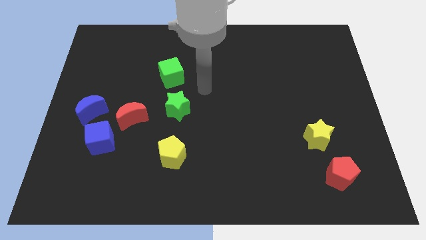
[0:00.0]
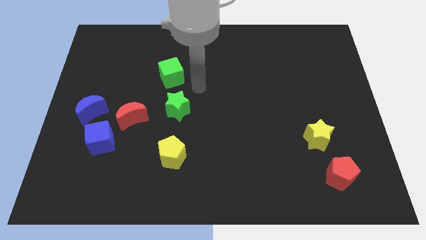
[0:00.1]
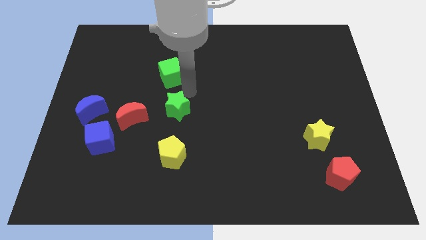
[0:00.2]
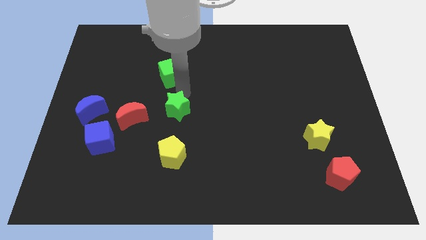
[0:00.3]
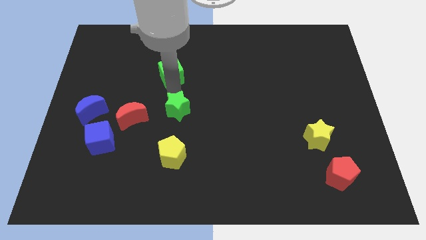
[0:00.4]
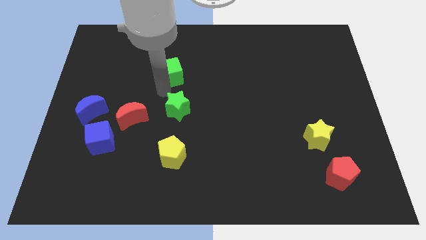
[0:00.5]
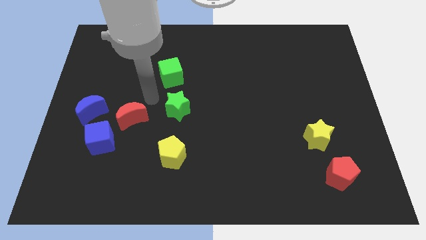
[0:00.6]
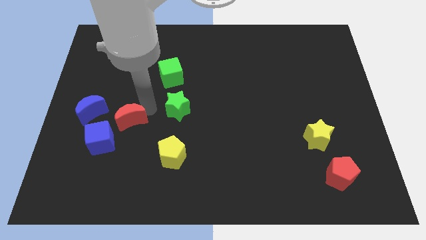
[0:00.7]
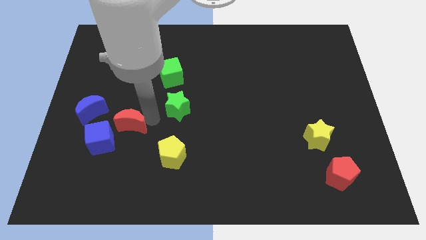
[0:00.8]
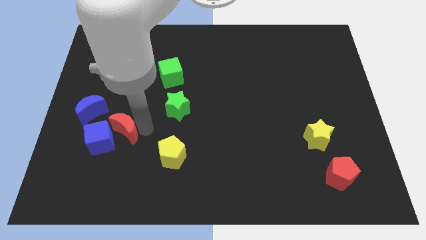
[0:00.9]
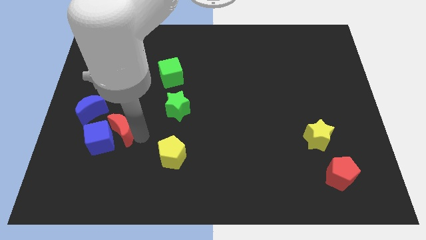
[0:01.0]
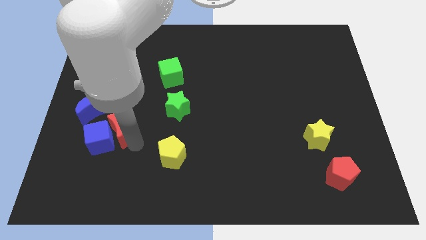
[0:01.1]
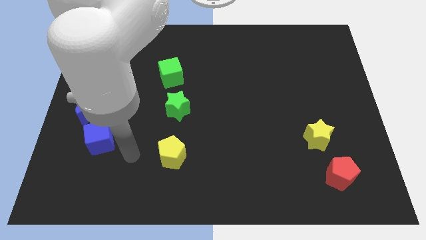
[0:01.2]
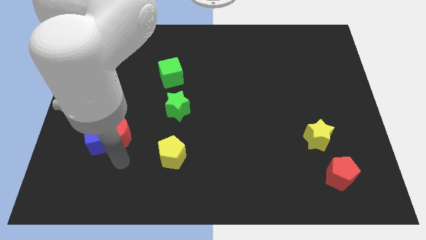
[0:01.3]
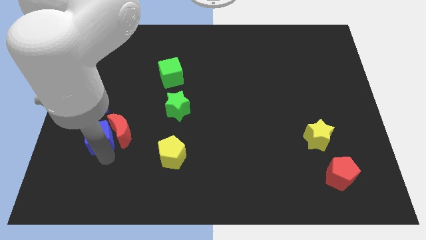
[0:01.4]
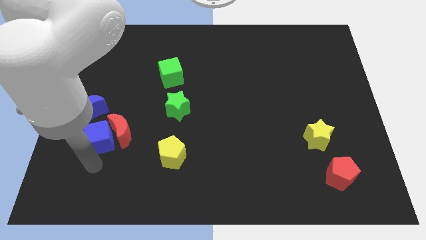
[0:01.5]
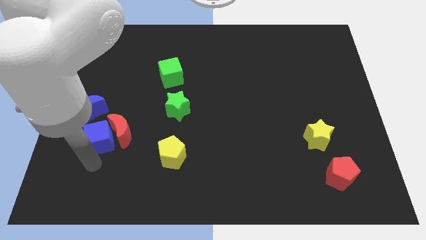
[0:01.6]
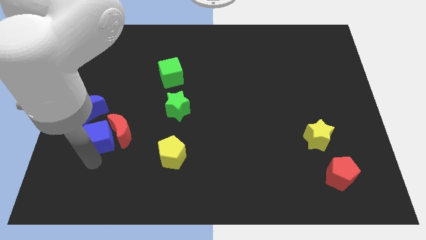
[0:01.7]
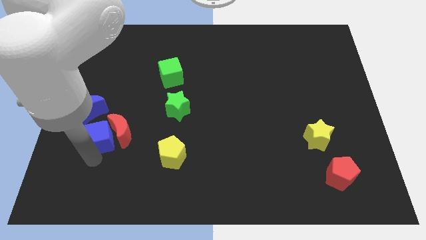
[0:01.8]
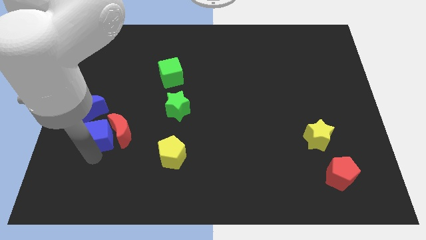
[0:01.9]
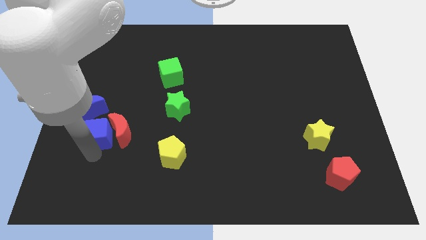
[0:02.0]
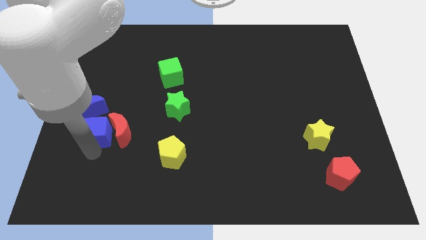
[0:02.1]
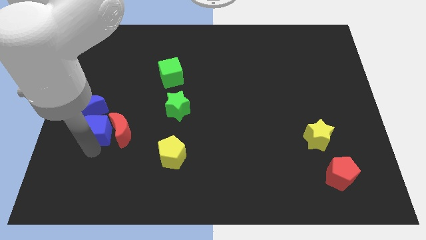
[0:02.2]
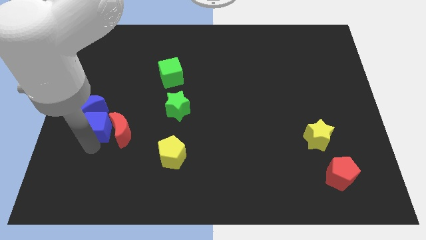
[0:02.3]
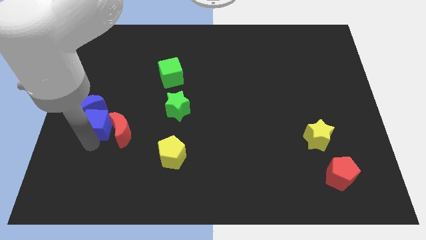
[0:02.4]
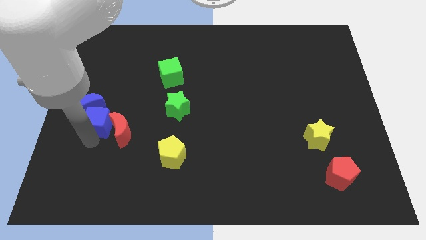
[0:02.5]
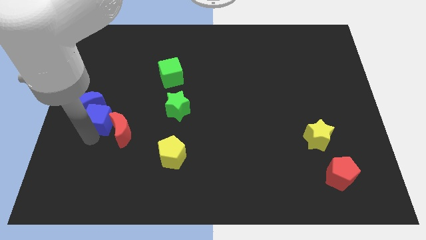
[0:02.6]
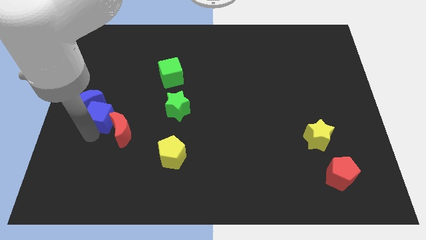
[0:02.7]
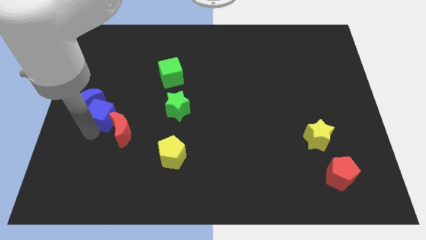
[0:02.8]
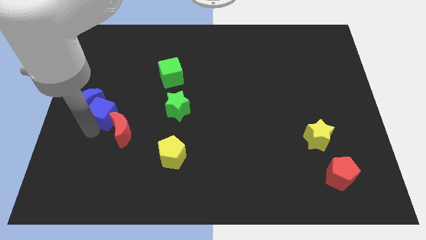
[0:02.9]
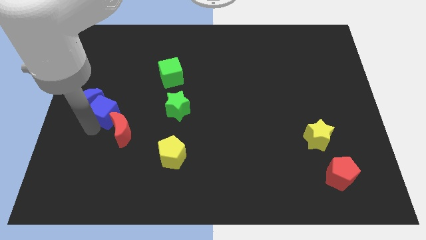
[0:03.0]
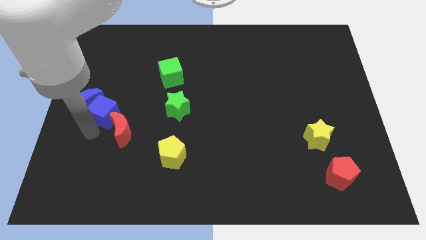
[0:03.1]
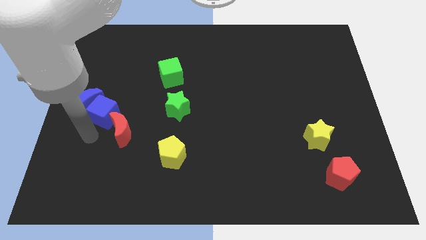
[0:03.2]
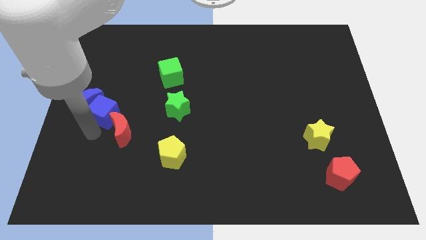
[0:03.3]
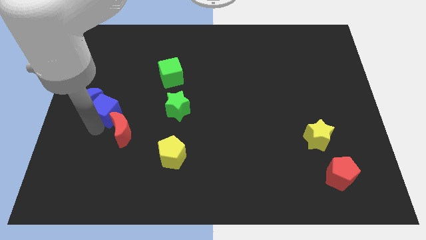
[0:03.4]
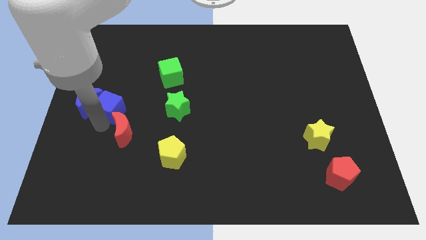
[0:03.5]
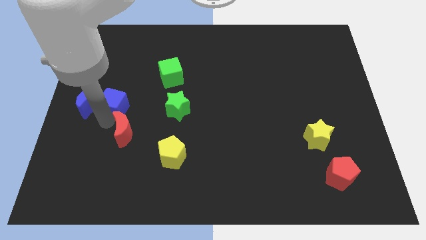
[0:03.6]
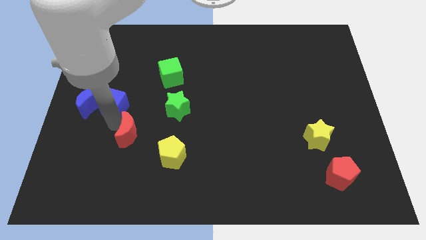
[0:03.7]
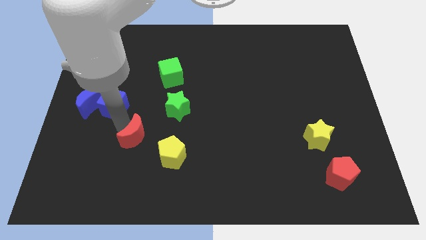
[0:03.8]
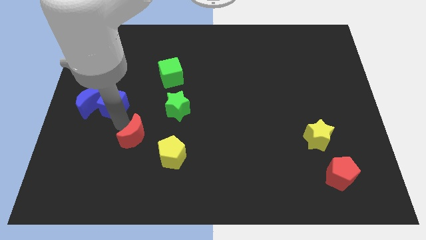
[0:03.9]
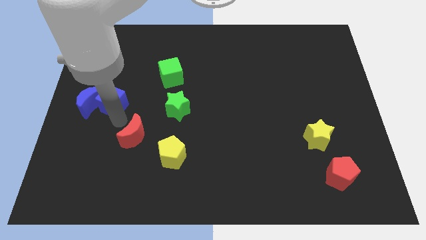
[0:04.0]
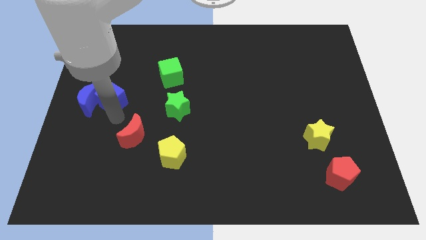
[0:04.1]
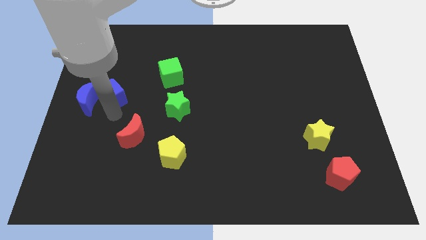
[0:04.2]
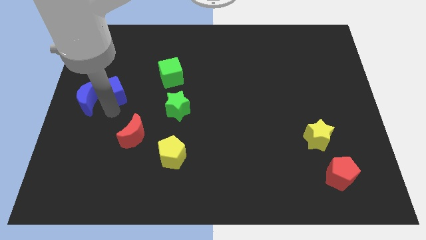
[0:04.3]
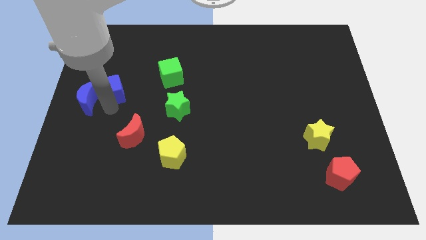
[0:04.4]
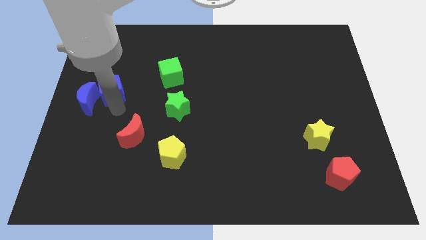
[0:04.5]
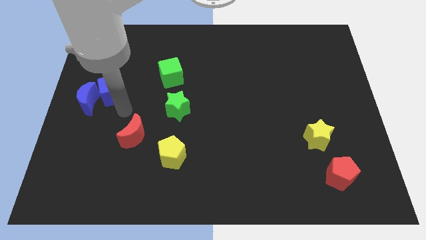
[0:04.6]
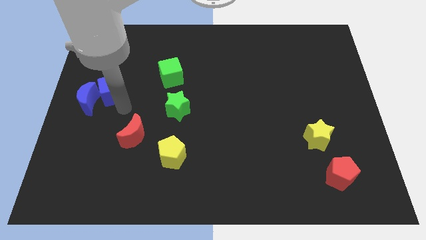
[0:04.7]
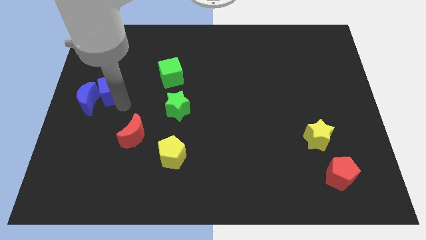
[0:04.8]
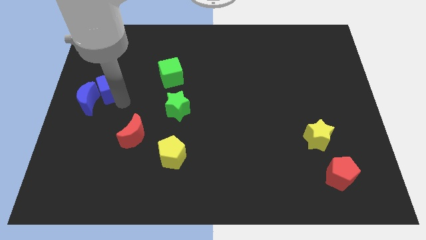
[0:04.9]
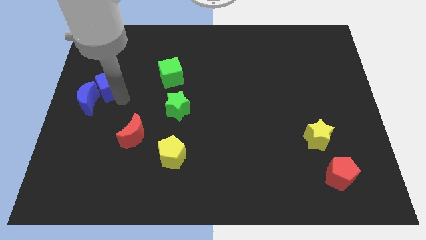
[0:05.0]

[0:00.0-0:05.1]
slide the blue cube above the blue moon

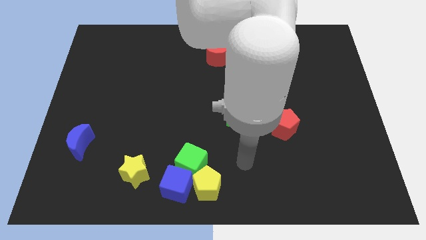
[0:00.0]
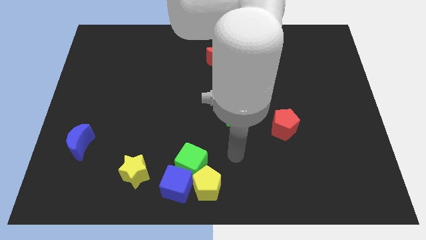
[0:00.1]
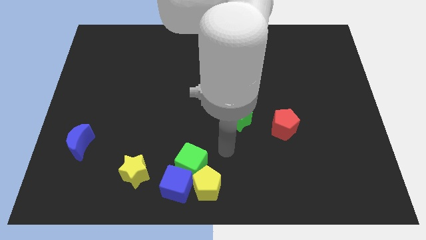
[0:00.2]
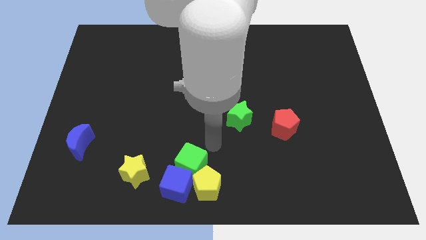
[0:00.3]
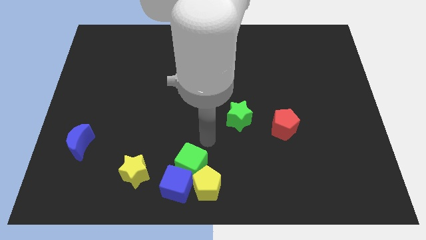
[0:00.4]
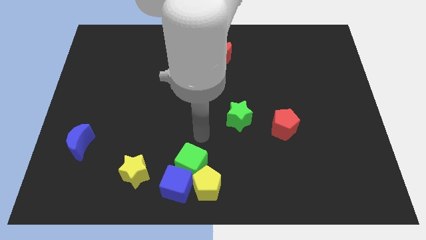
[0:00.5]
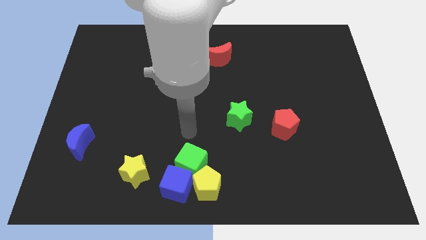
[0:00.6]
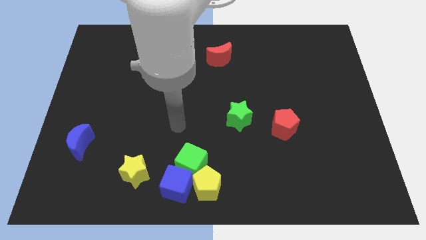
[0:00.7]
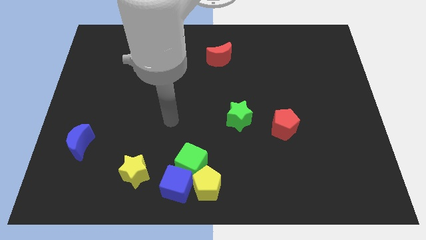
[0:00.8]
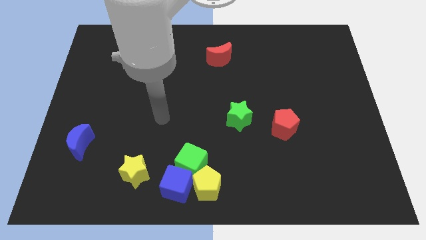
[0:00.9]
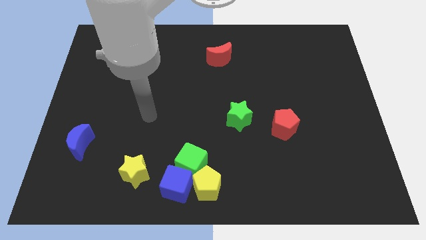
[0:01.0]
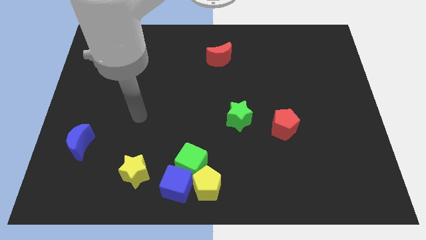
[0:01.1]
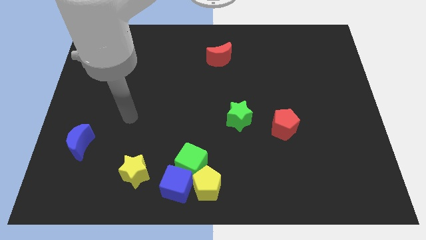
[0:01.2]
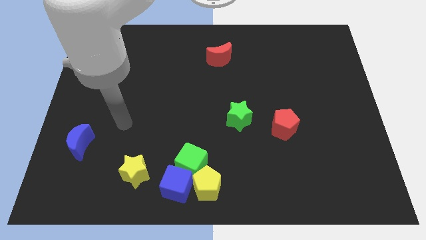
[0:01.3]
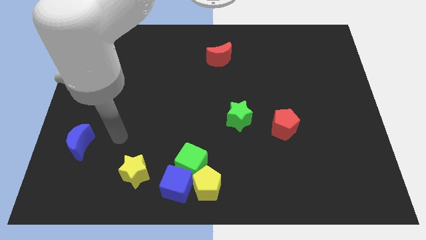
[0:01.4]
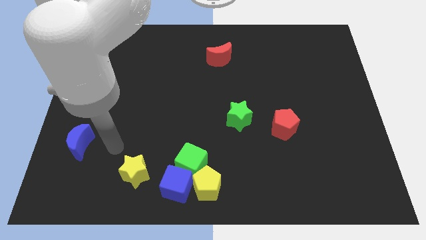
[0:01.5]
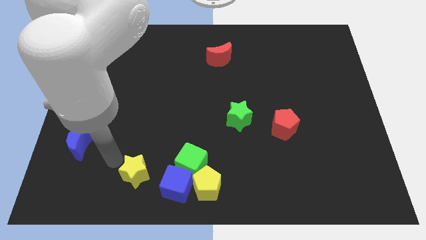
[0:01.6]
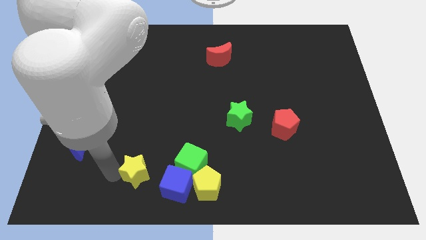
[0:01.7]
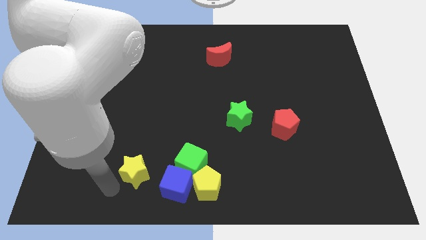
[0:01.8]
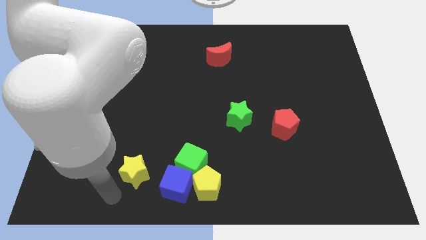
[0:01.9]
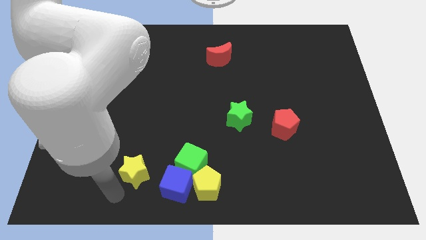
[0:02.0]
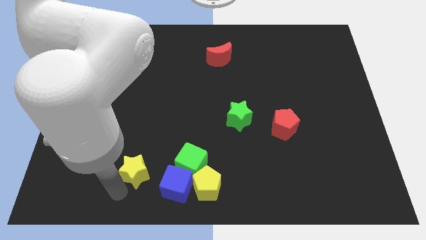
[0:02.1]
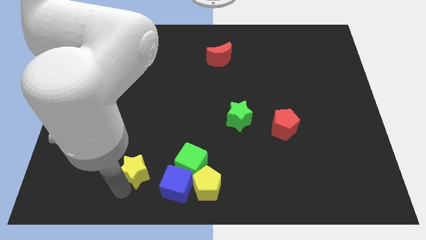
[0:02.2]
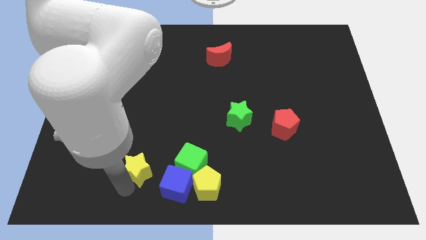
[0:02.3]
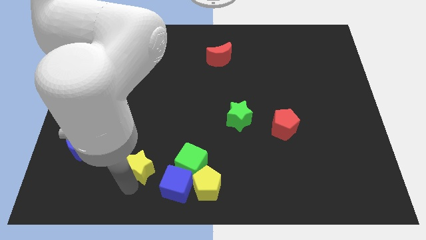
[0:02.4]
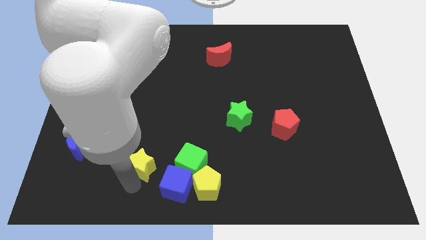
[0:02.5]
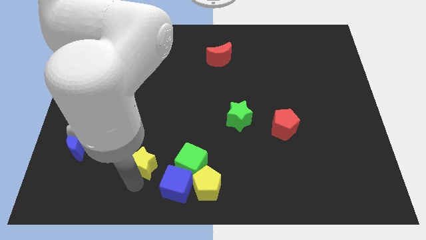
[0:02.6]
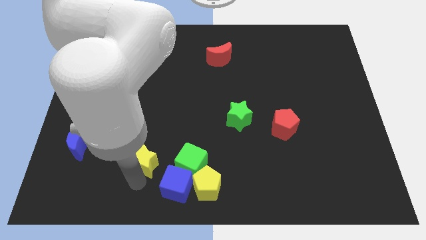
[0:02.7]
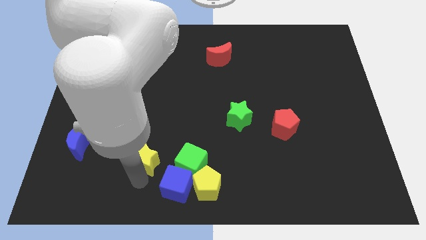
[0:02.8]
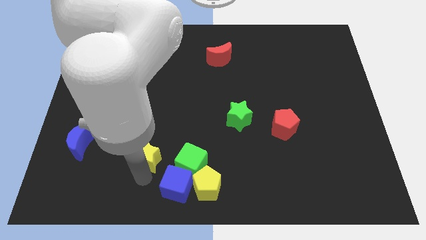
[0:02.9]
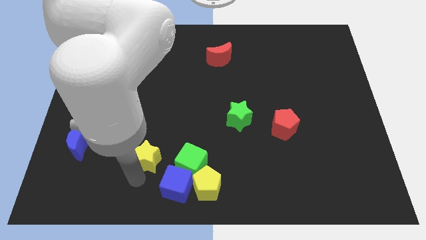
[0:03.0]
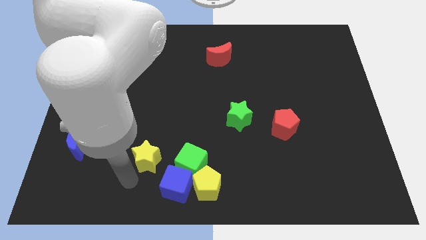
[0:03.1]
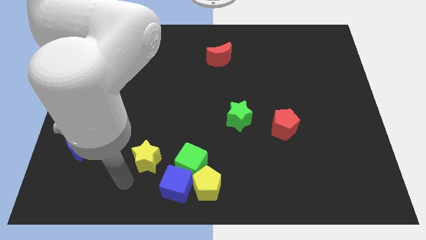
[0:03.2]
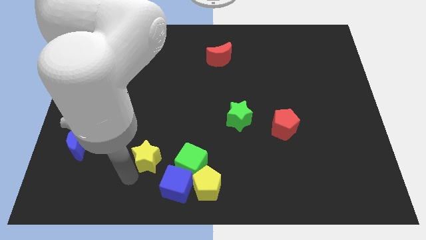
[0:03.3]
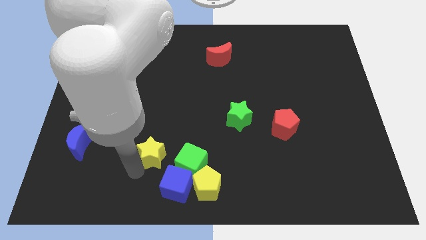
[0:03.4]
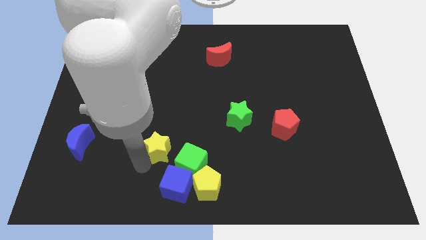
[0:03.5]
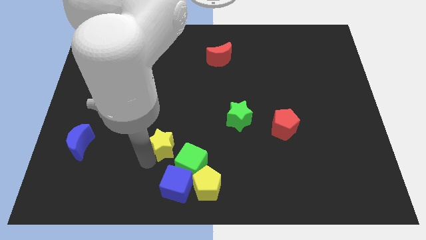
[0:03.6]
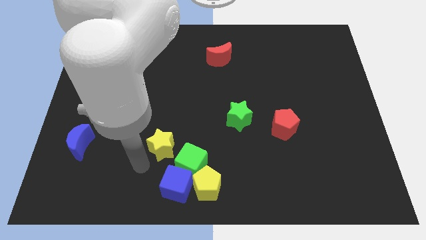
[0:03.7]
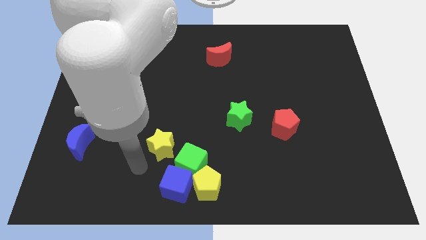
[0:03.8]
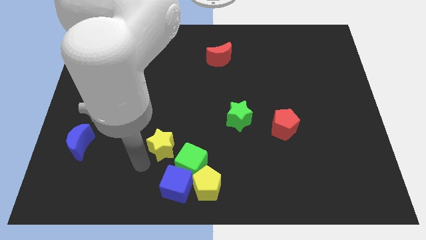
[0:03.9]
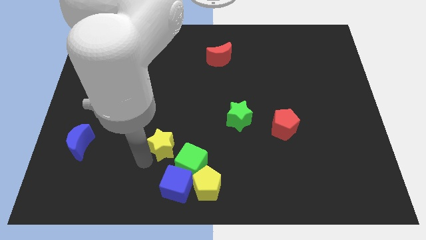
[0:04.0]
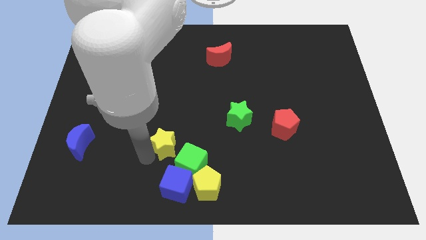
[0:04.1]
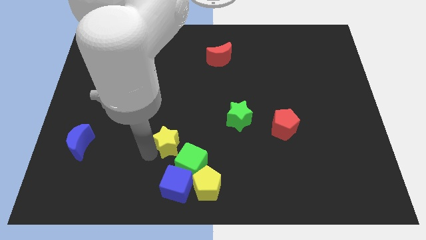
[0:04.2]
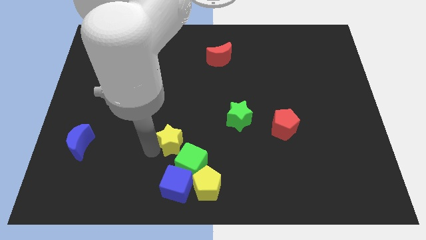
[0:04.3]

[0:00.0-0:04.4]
push the yellow star to the top of the green cube
